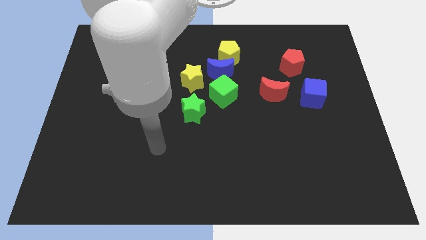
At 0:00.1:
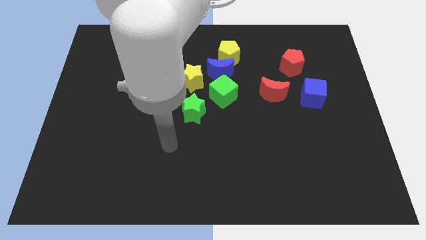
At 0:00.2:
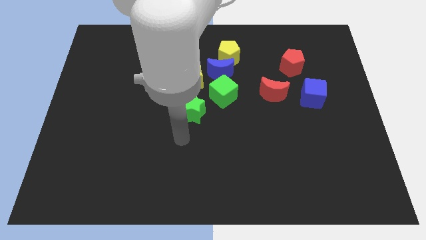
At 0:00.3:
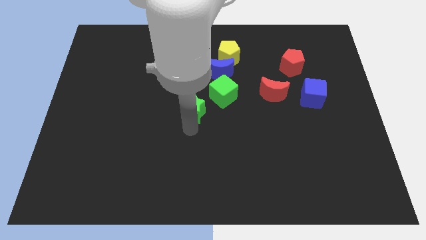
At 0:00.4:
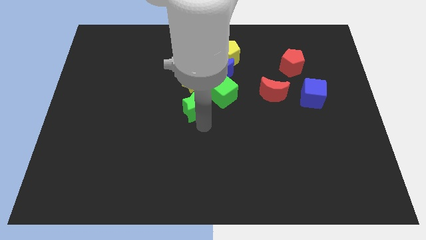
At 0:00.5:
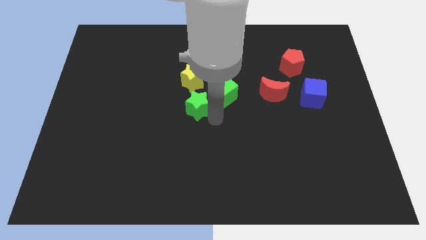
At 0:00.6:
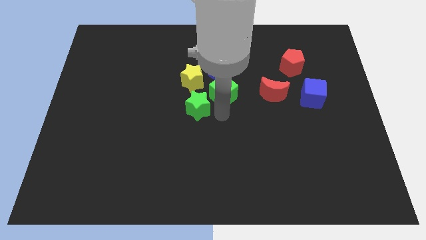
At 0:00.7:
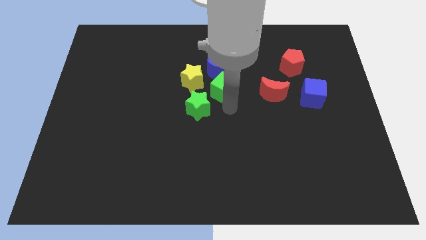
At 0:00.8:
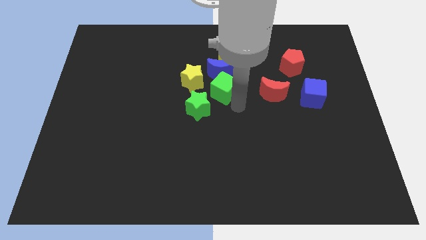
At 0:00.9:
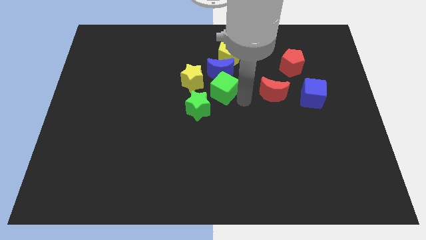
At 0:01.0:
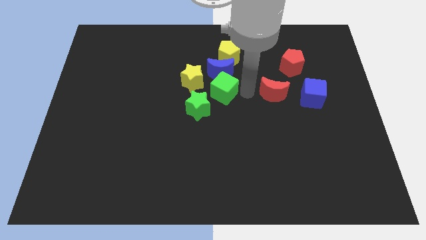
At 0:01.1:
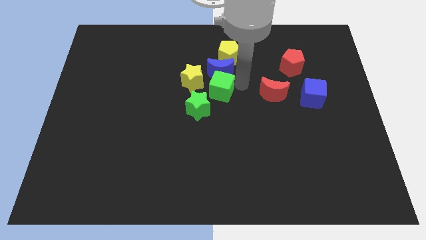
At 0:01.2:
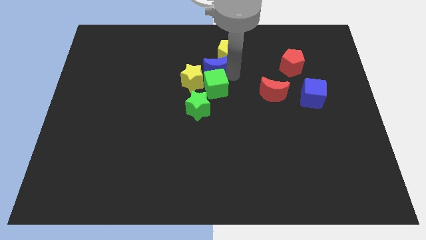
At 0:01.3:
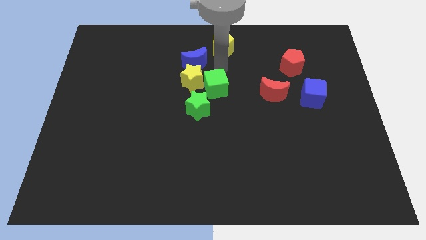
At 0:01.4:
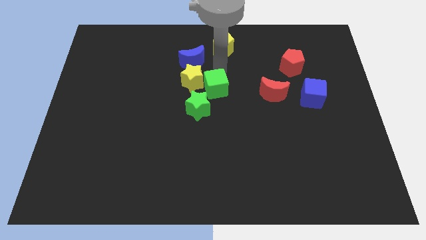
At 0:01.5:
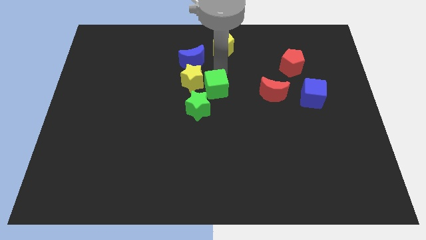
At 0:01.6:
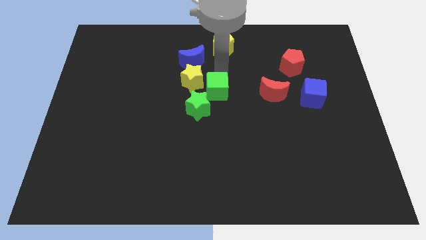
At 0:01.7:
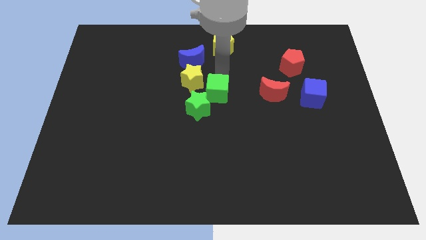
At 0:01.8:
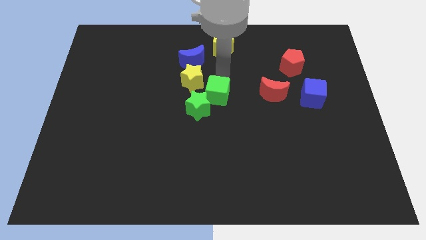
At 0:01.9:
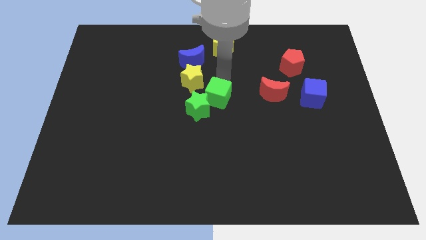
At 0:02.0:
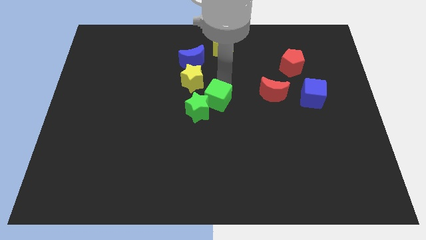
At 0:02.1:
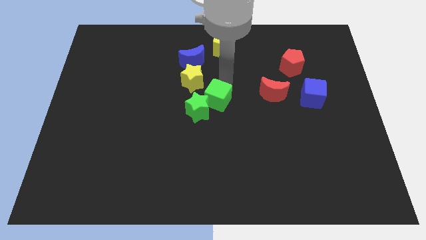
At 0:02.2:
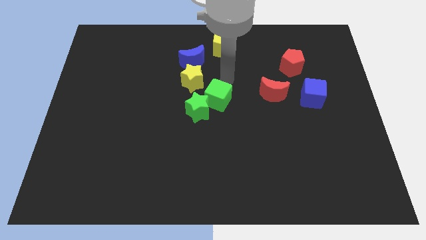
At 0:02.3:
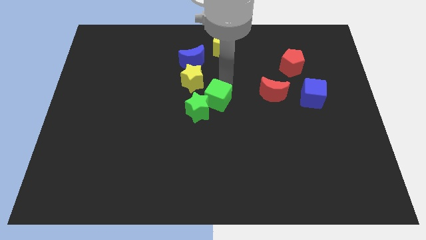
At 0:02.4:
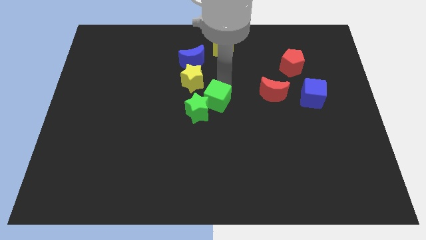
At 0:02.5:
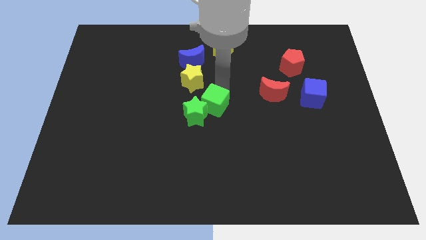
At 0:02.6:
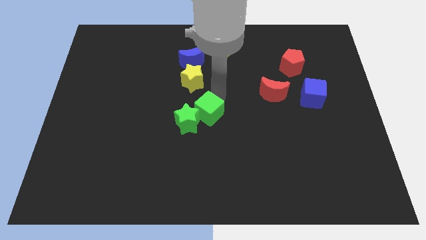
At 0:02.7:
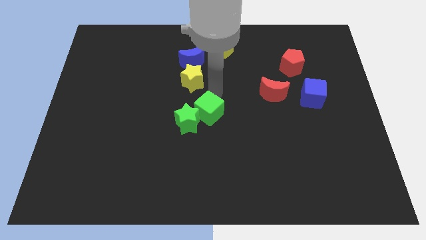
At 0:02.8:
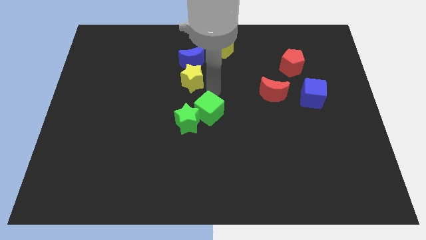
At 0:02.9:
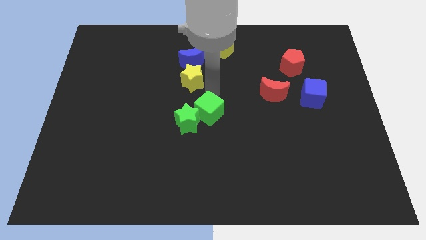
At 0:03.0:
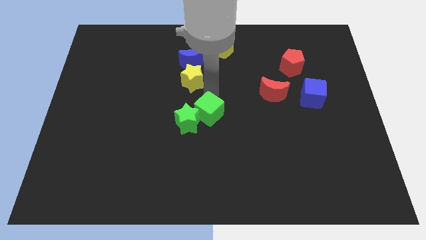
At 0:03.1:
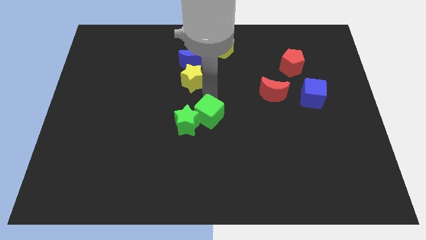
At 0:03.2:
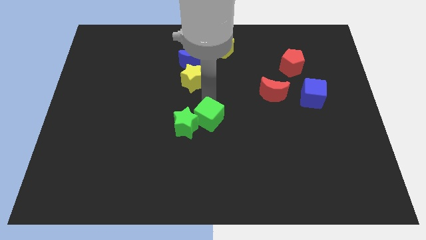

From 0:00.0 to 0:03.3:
slide the green cube a bit downwards and left diagonally

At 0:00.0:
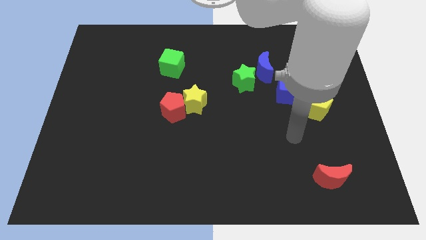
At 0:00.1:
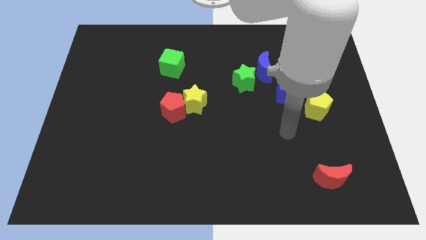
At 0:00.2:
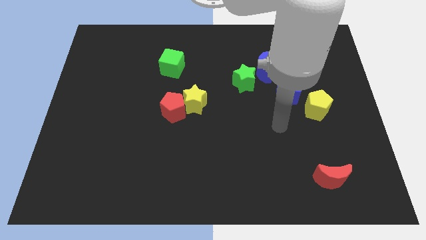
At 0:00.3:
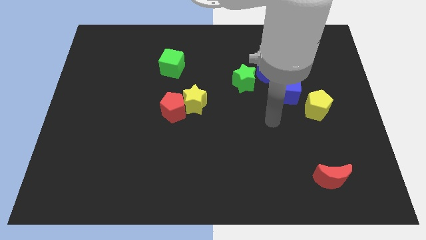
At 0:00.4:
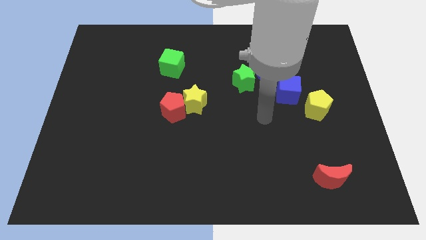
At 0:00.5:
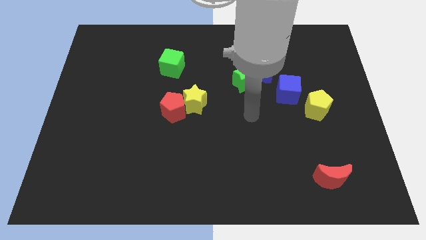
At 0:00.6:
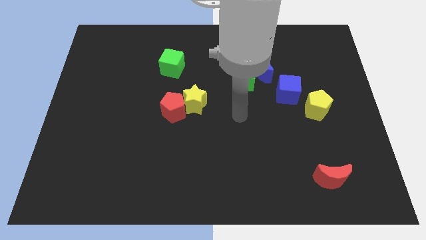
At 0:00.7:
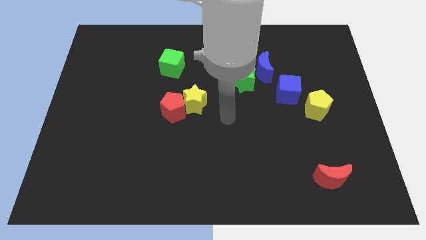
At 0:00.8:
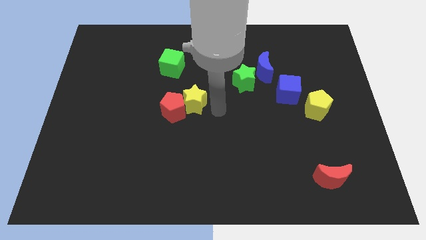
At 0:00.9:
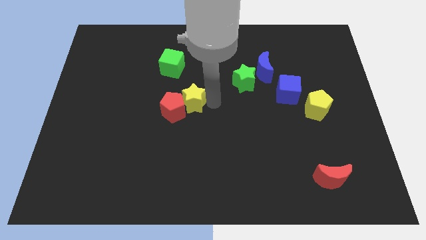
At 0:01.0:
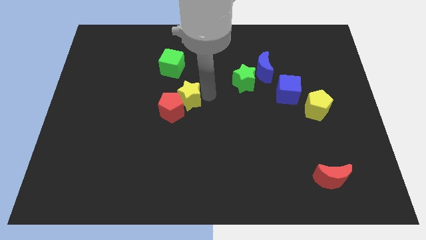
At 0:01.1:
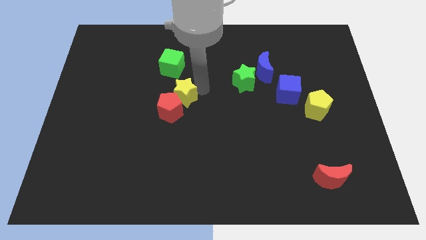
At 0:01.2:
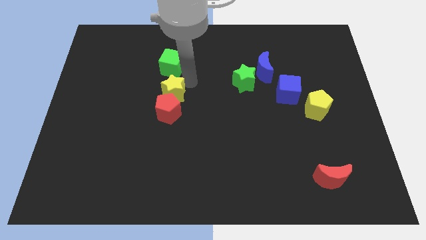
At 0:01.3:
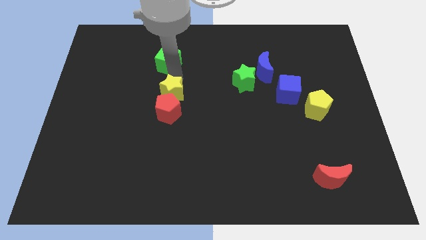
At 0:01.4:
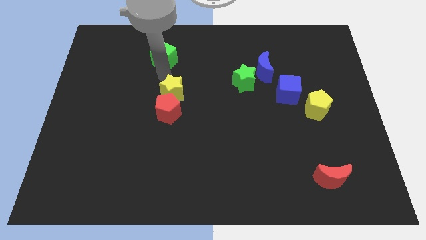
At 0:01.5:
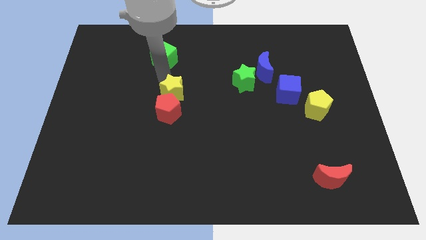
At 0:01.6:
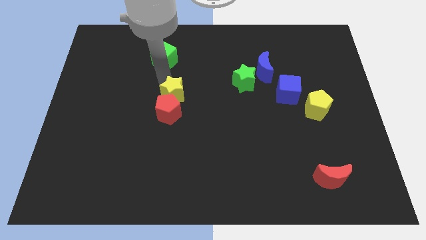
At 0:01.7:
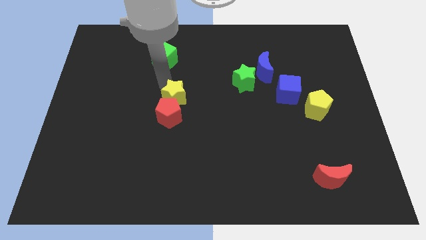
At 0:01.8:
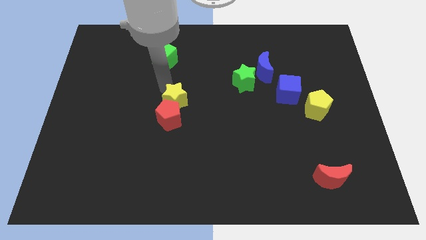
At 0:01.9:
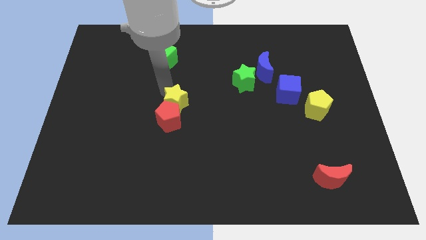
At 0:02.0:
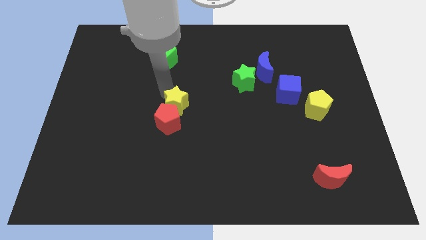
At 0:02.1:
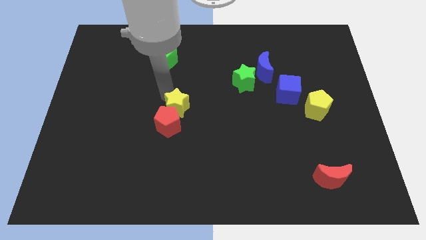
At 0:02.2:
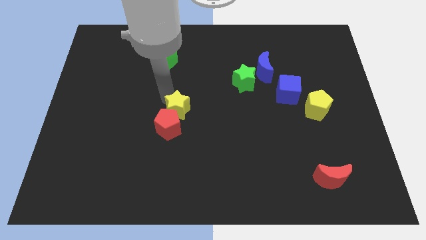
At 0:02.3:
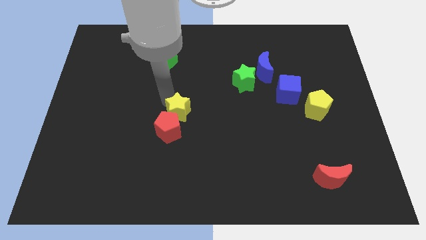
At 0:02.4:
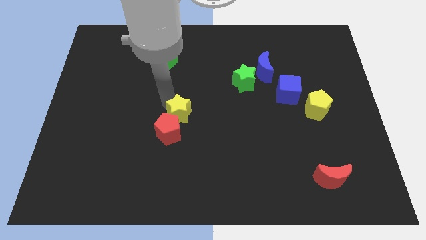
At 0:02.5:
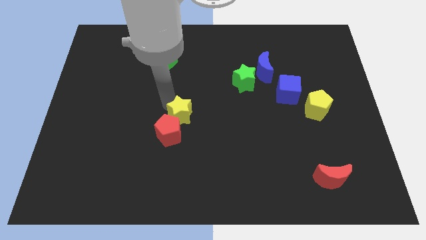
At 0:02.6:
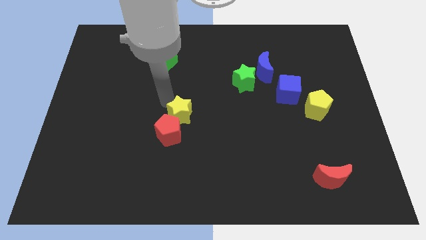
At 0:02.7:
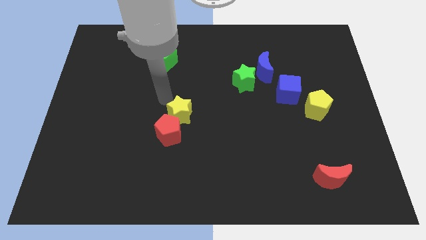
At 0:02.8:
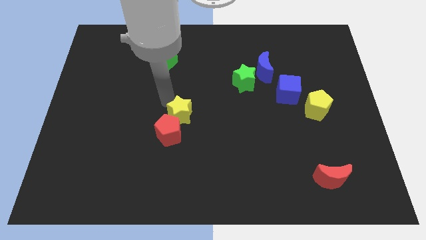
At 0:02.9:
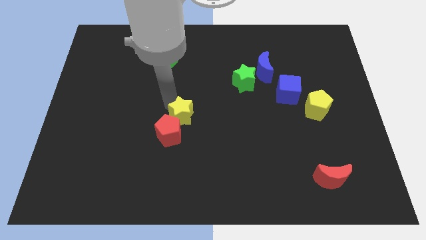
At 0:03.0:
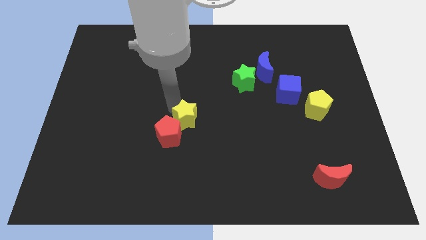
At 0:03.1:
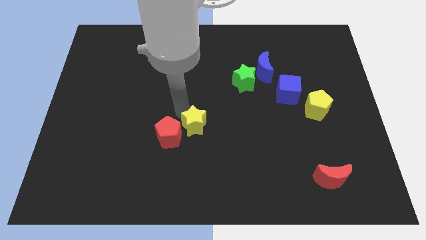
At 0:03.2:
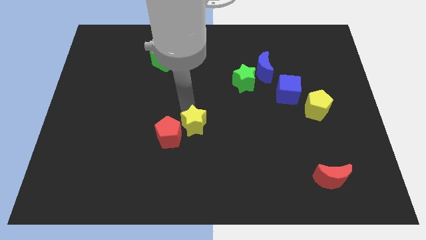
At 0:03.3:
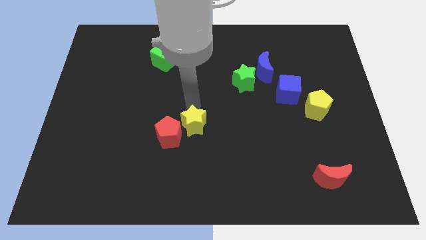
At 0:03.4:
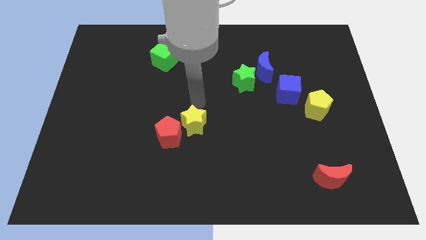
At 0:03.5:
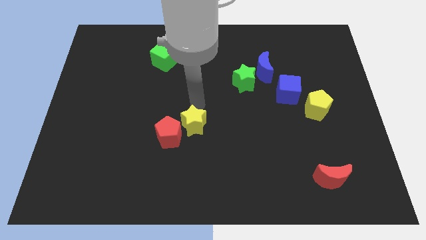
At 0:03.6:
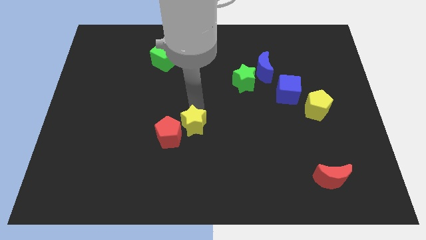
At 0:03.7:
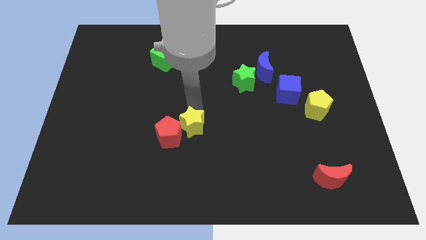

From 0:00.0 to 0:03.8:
slide the yellow star a little down

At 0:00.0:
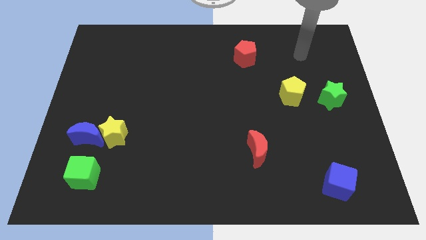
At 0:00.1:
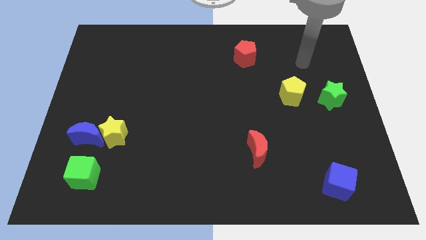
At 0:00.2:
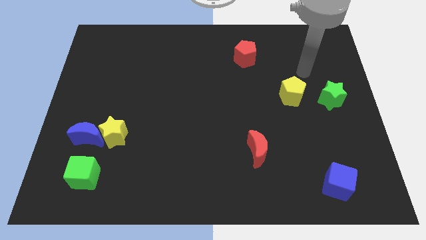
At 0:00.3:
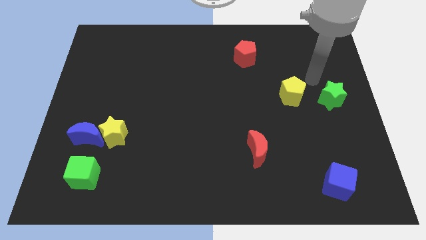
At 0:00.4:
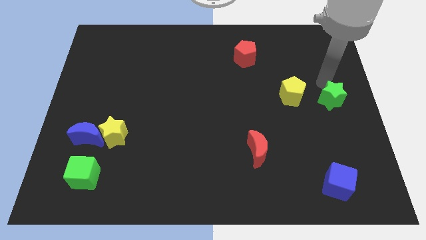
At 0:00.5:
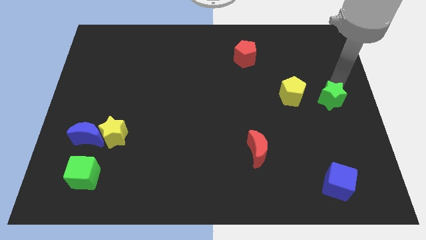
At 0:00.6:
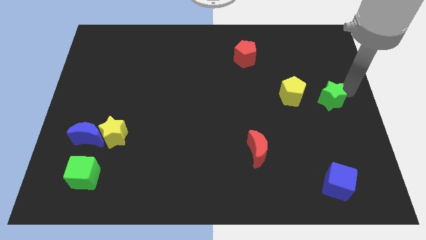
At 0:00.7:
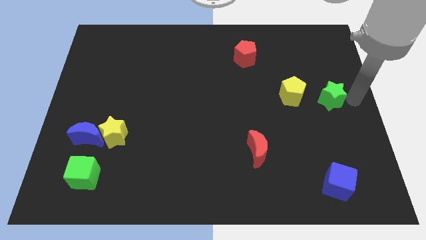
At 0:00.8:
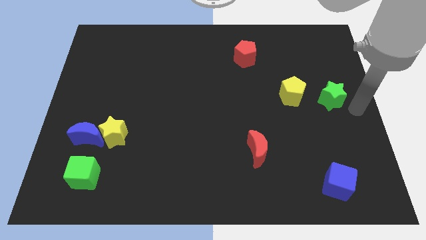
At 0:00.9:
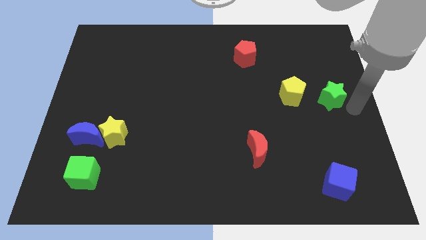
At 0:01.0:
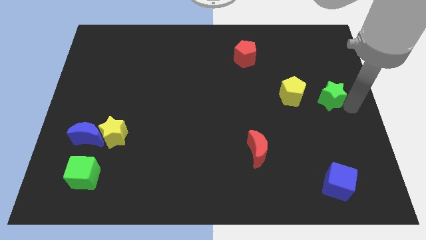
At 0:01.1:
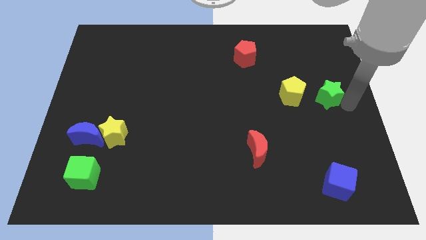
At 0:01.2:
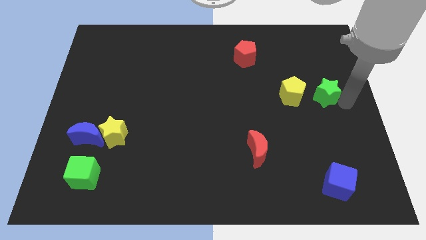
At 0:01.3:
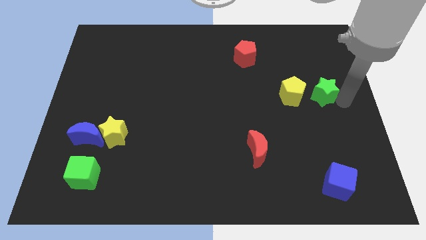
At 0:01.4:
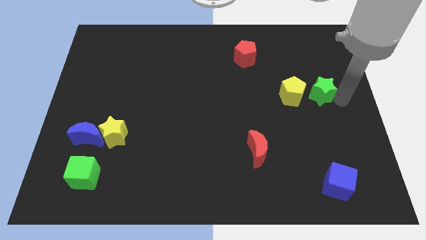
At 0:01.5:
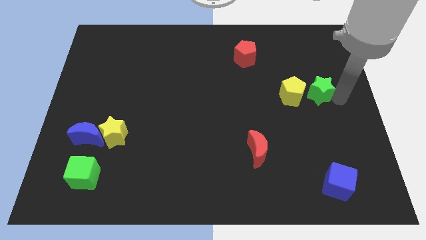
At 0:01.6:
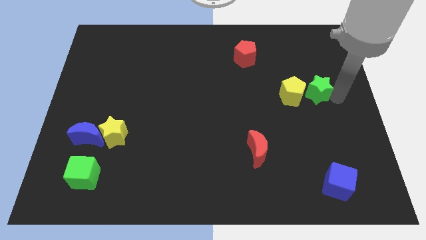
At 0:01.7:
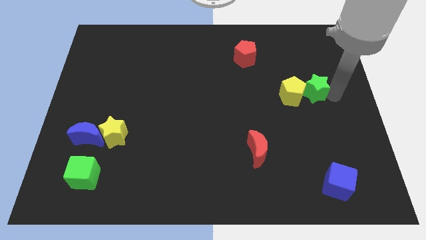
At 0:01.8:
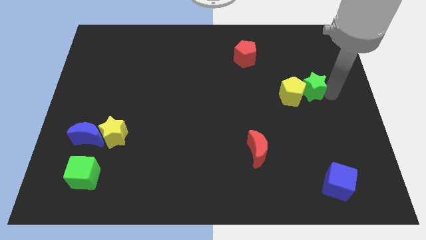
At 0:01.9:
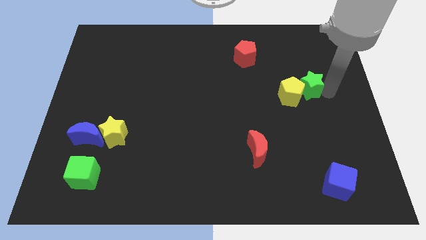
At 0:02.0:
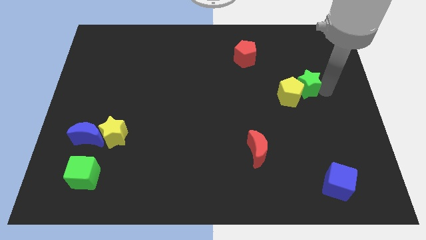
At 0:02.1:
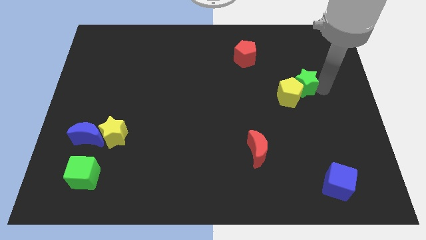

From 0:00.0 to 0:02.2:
slightly move the green star up and then left
